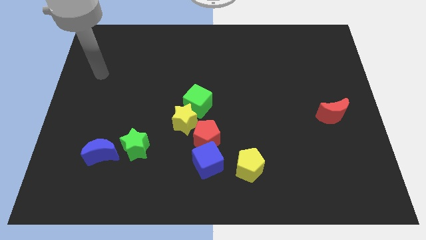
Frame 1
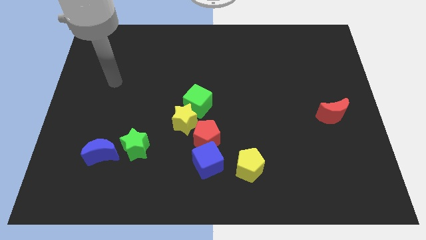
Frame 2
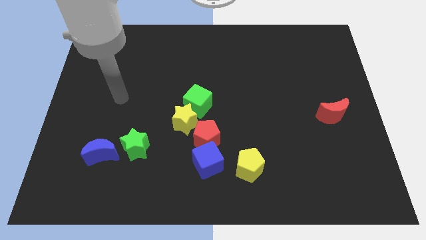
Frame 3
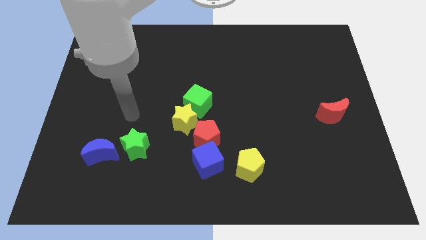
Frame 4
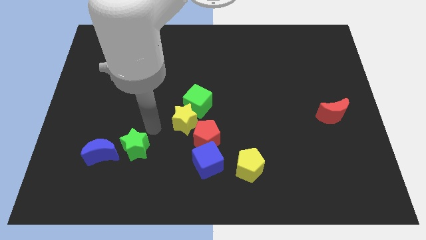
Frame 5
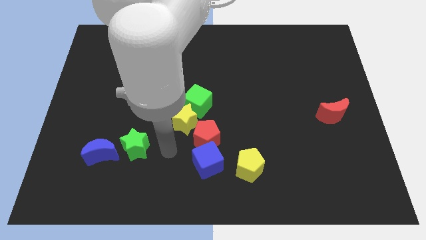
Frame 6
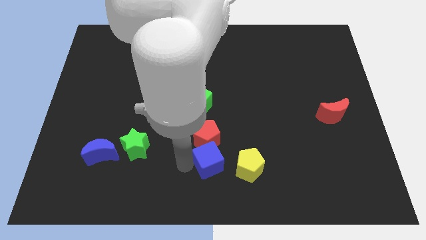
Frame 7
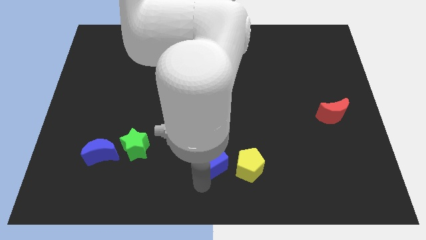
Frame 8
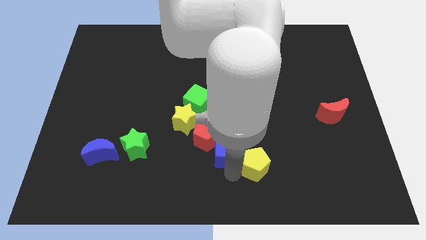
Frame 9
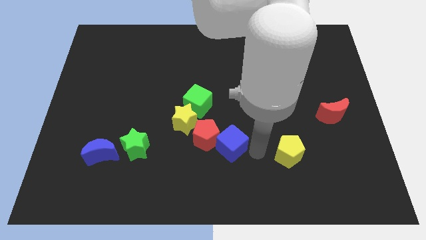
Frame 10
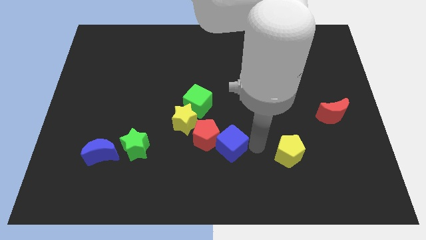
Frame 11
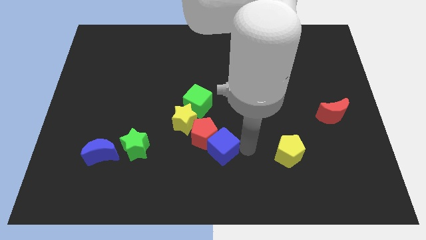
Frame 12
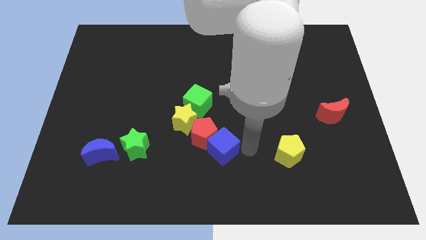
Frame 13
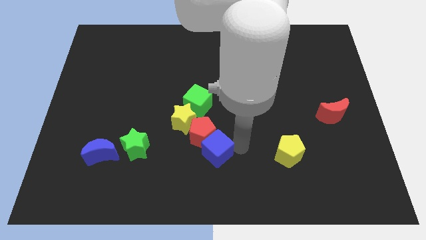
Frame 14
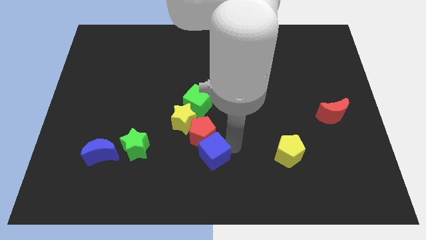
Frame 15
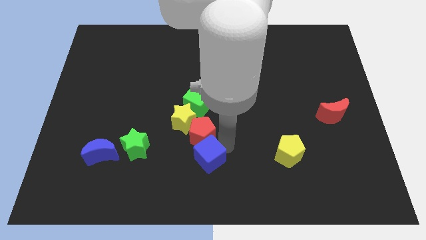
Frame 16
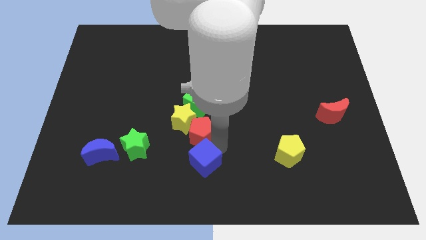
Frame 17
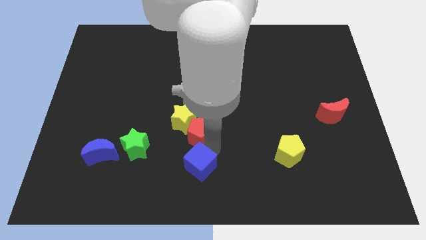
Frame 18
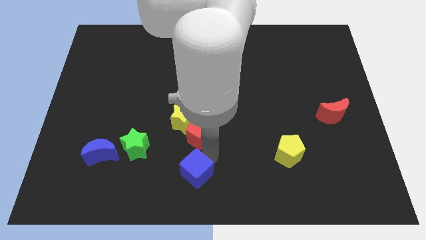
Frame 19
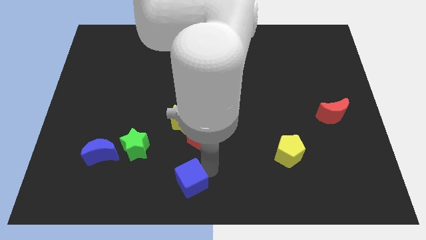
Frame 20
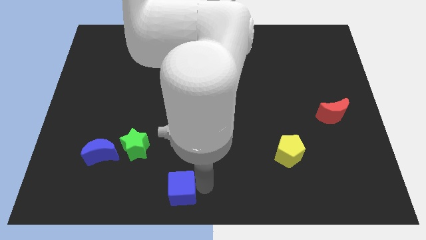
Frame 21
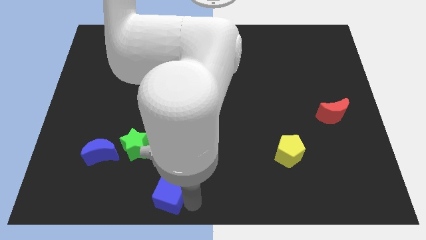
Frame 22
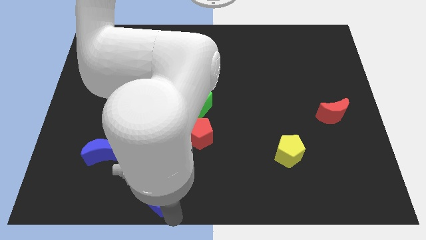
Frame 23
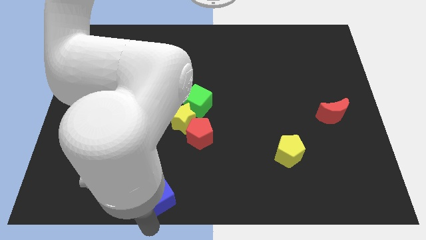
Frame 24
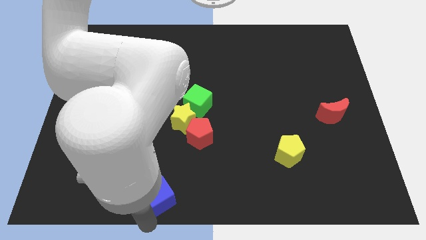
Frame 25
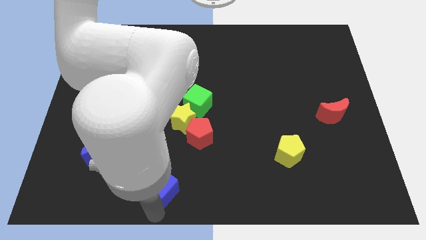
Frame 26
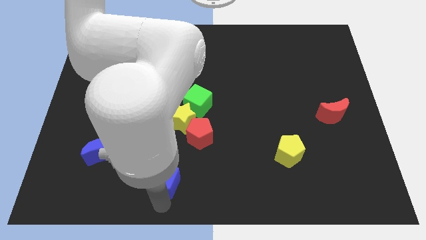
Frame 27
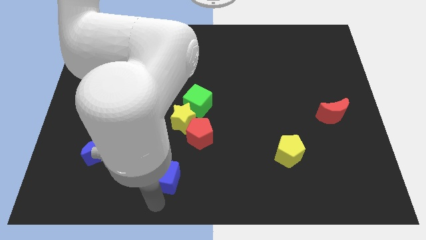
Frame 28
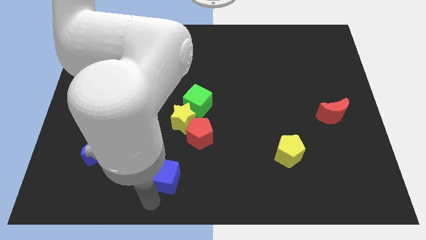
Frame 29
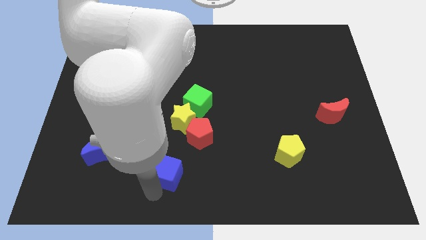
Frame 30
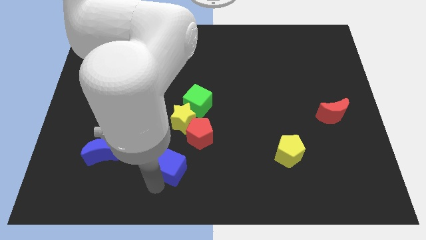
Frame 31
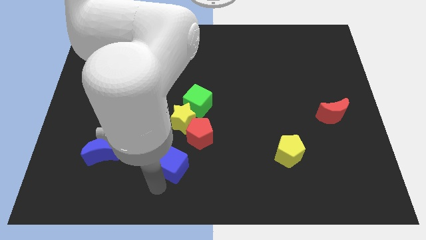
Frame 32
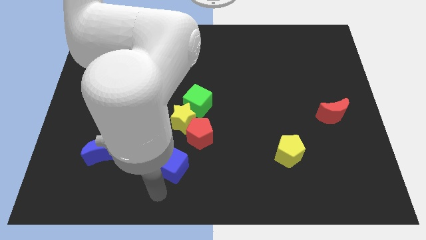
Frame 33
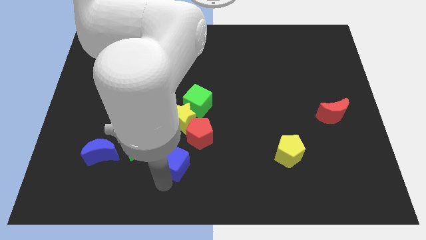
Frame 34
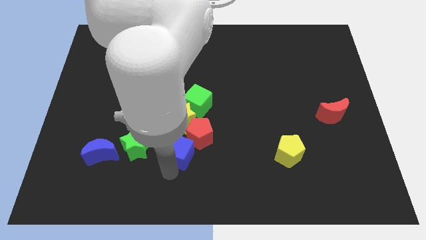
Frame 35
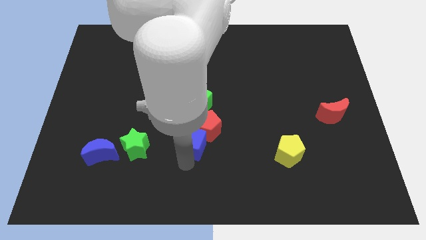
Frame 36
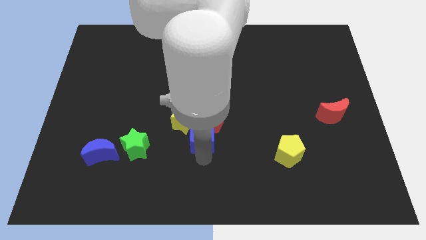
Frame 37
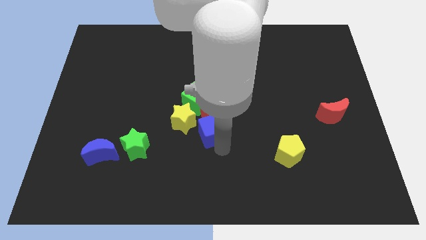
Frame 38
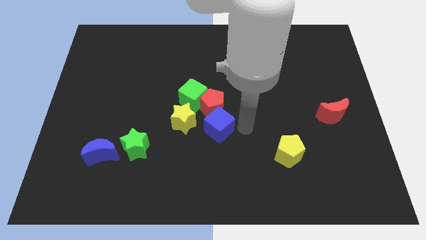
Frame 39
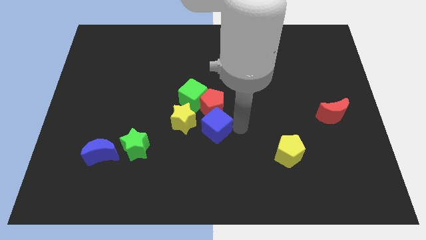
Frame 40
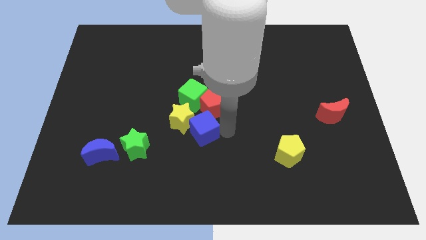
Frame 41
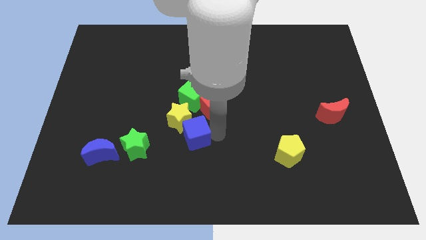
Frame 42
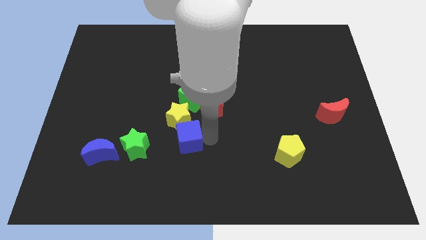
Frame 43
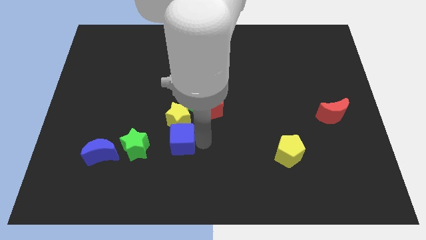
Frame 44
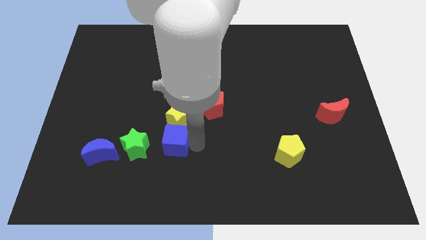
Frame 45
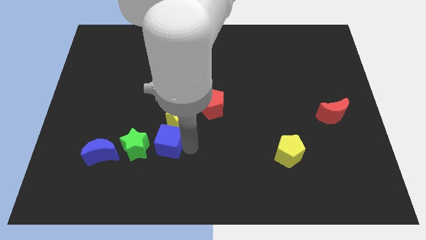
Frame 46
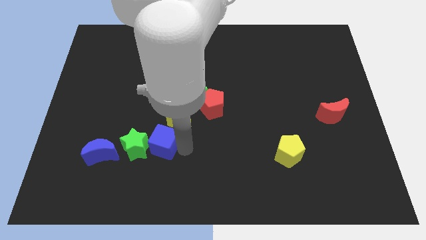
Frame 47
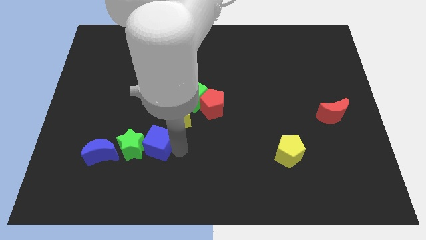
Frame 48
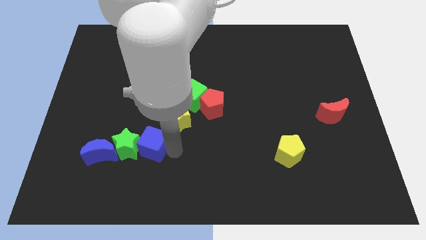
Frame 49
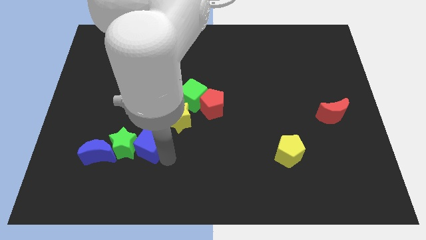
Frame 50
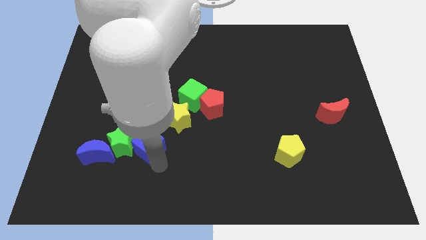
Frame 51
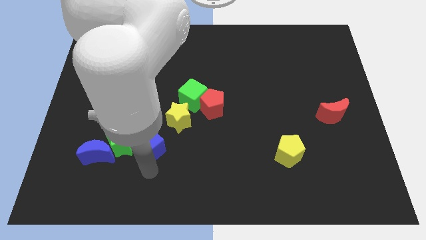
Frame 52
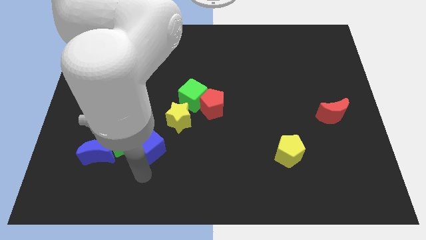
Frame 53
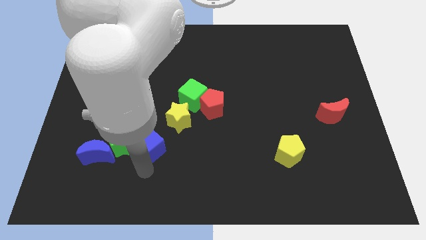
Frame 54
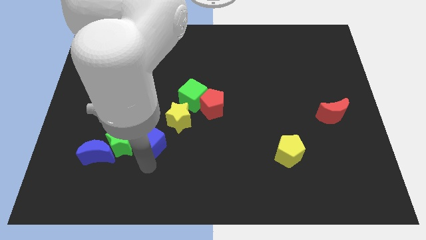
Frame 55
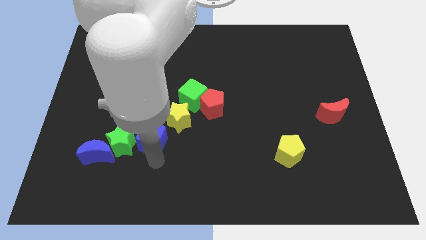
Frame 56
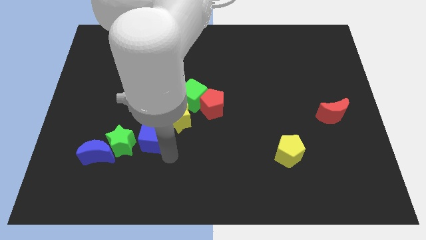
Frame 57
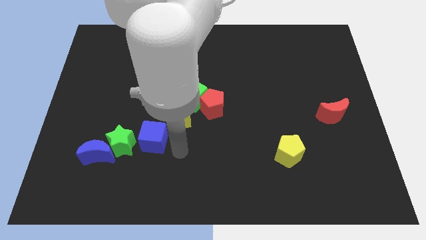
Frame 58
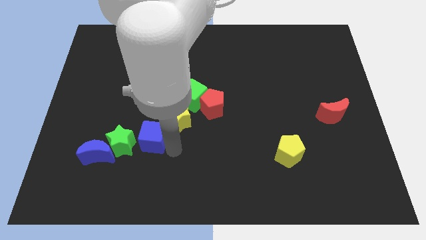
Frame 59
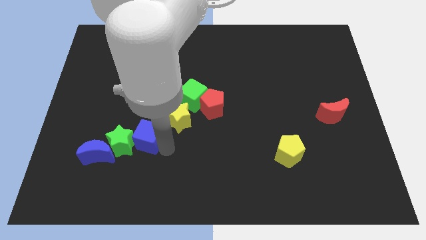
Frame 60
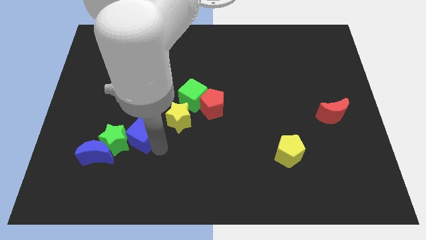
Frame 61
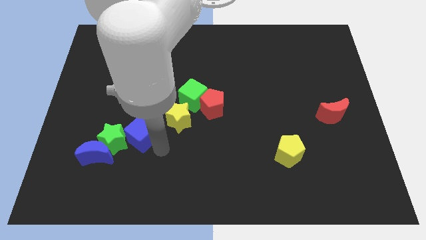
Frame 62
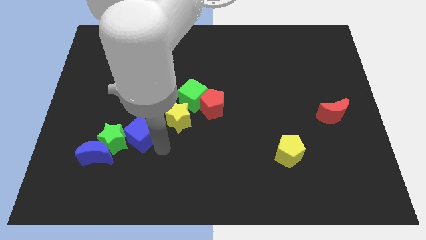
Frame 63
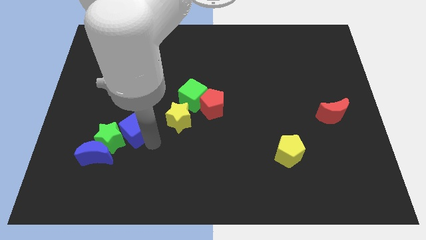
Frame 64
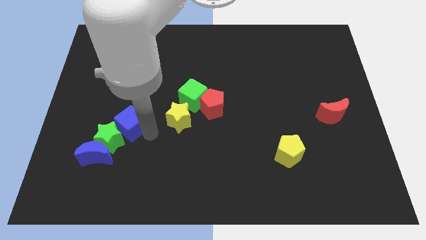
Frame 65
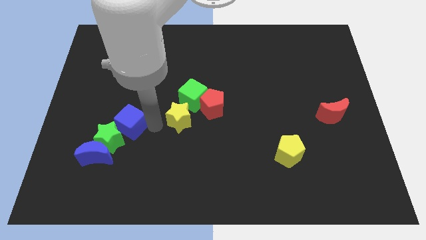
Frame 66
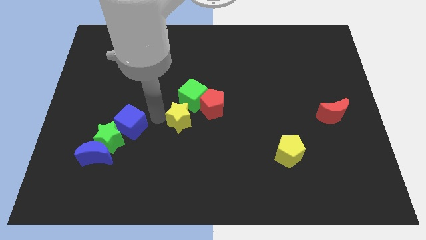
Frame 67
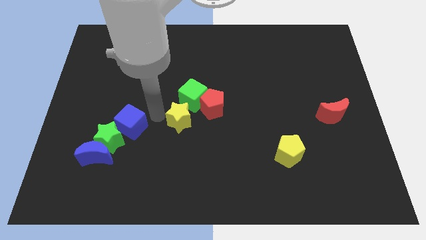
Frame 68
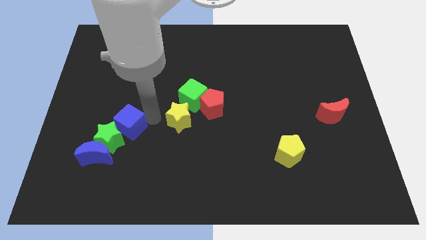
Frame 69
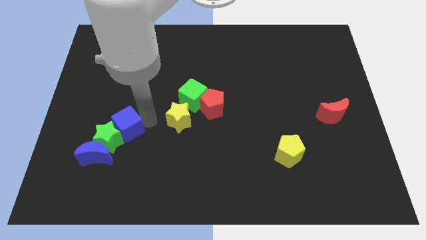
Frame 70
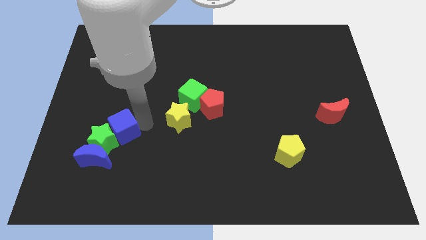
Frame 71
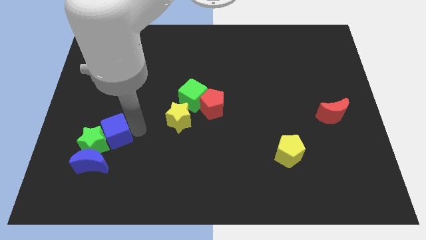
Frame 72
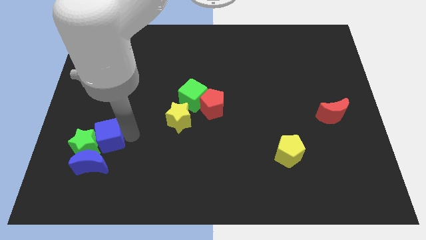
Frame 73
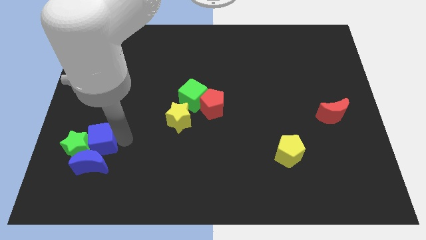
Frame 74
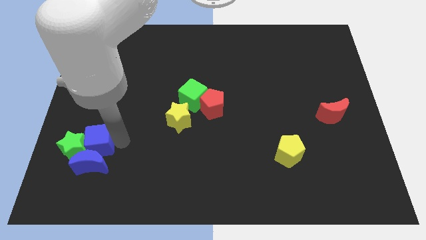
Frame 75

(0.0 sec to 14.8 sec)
slide the blue cube diagonally up and to the left of the blue moon

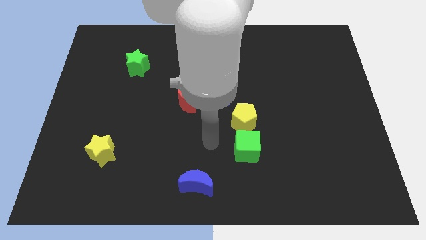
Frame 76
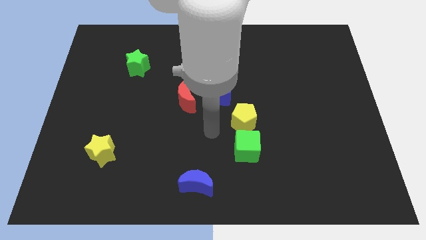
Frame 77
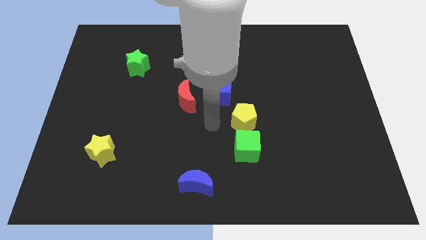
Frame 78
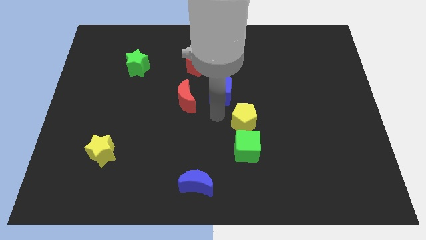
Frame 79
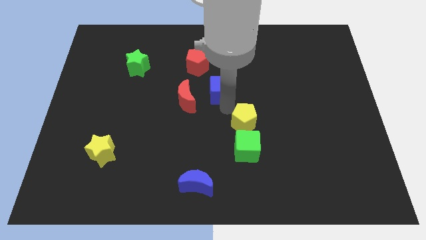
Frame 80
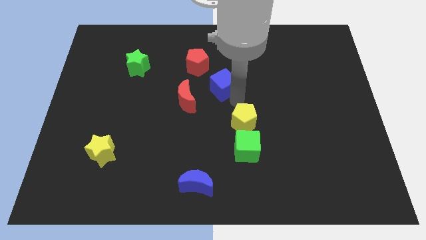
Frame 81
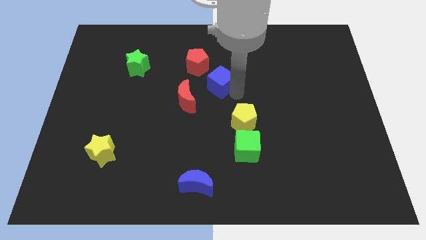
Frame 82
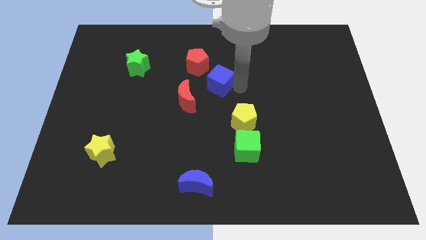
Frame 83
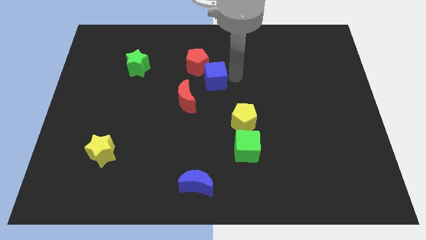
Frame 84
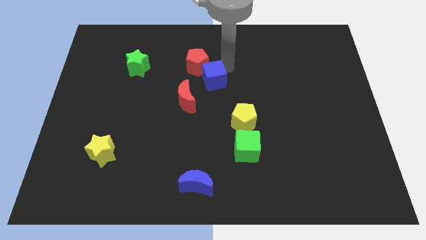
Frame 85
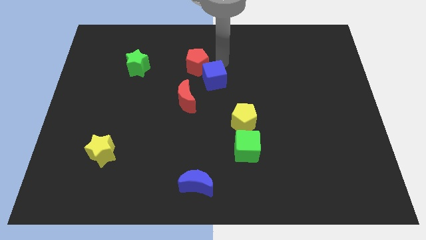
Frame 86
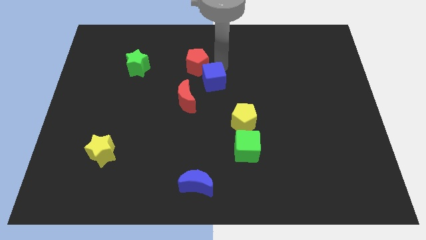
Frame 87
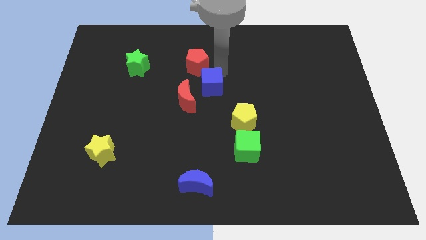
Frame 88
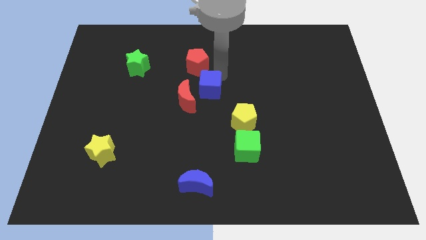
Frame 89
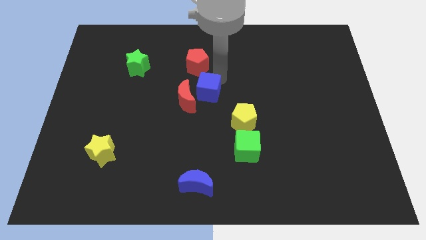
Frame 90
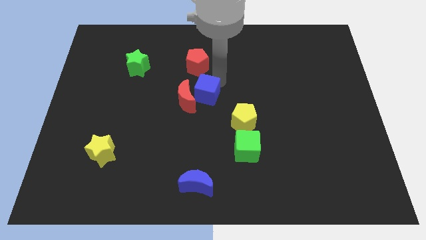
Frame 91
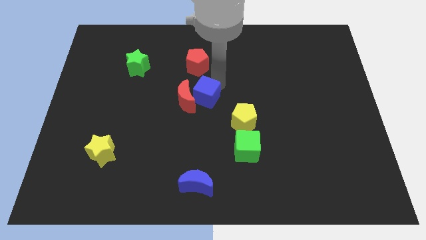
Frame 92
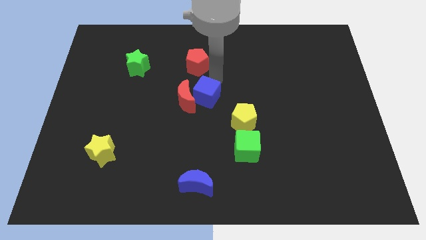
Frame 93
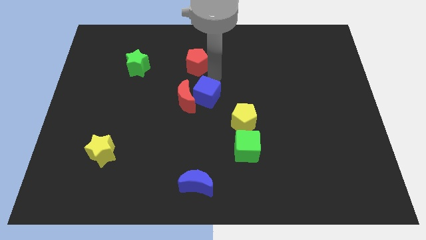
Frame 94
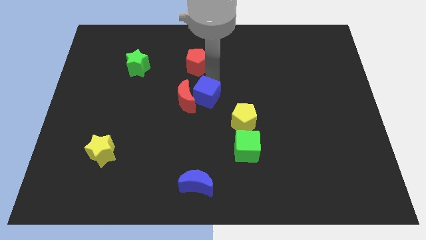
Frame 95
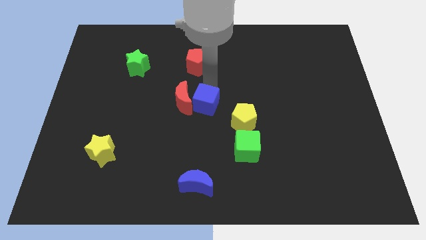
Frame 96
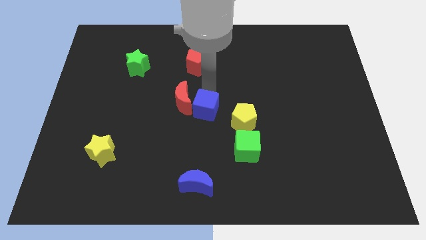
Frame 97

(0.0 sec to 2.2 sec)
slide the blue cube left of the yellow pentagon
